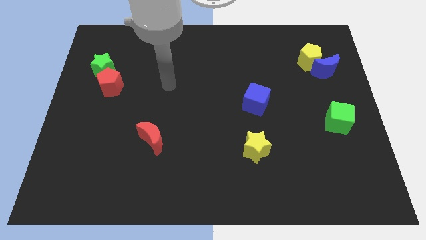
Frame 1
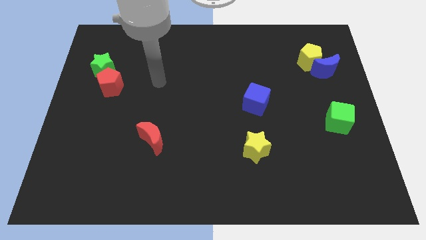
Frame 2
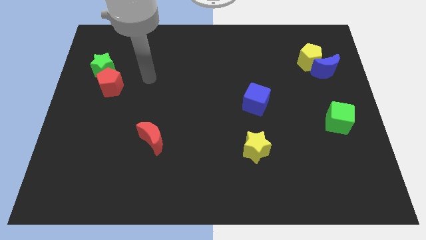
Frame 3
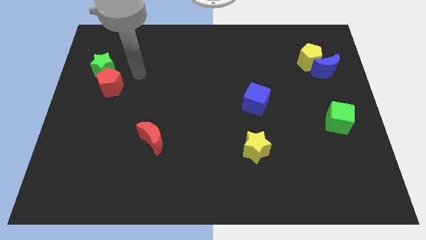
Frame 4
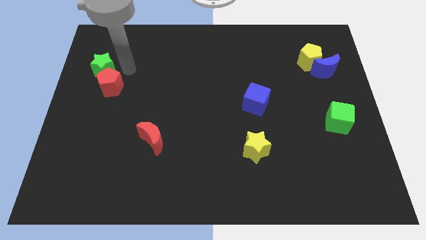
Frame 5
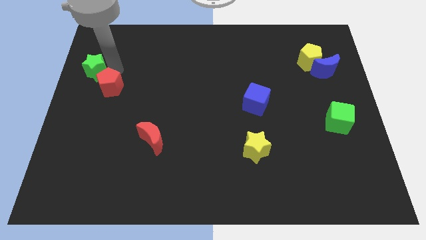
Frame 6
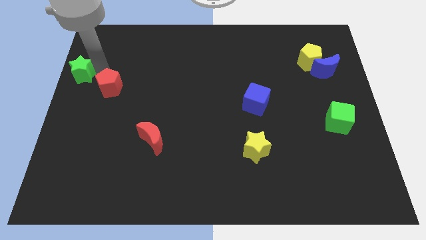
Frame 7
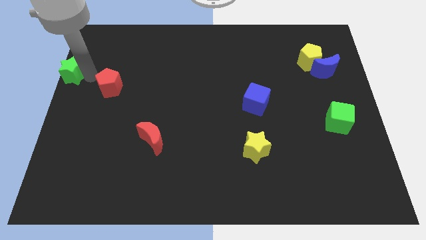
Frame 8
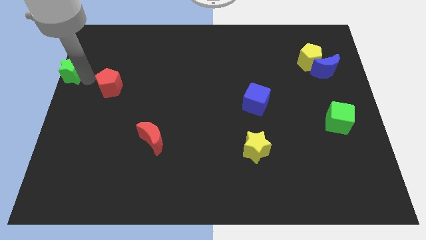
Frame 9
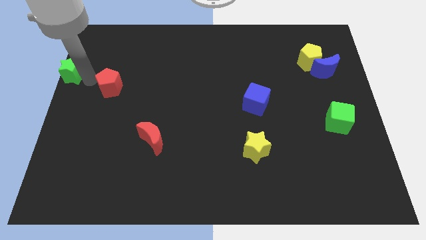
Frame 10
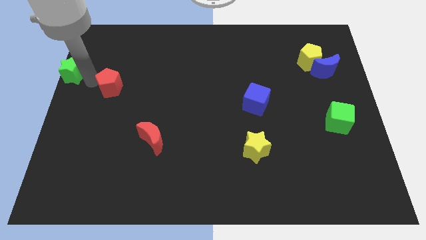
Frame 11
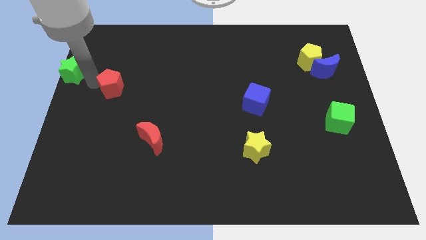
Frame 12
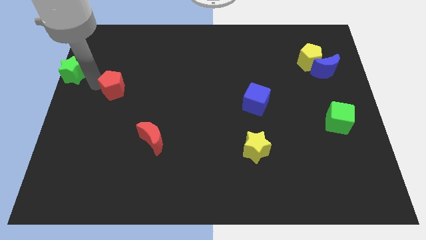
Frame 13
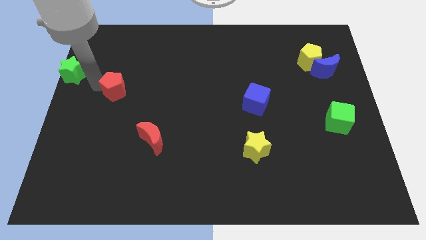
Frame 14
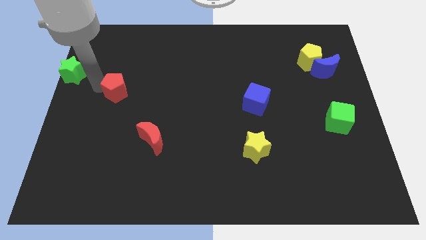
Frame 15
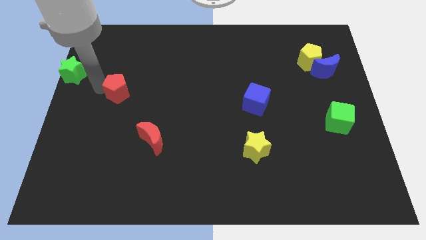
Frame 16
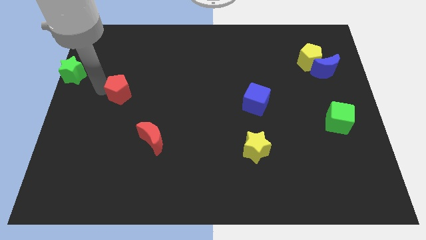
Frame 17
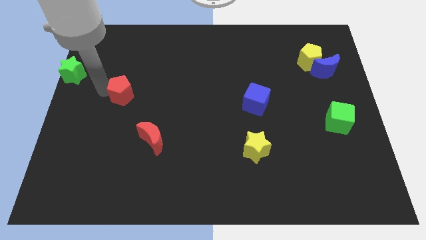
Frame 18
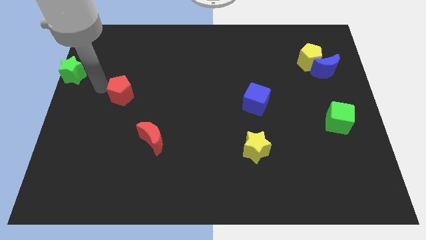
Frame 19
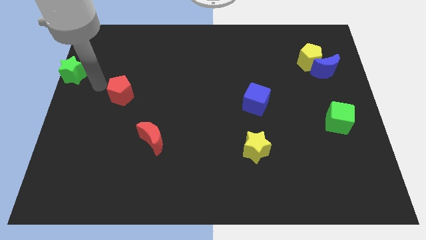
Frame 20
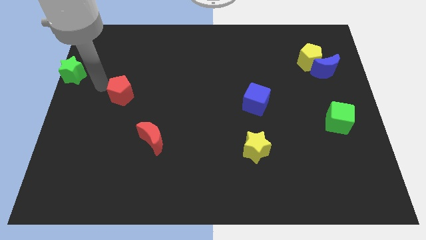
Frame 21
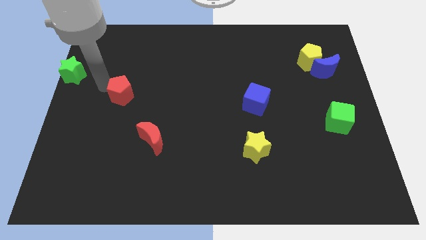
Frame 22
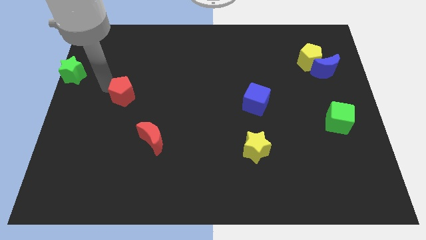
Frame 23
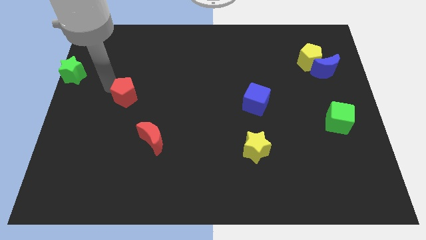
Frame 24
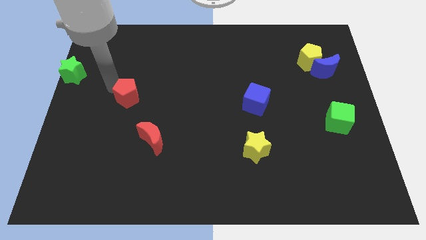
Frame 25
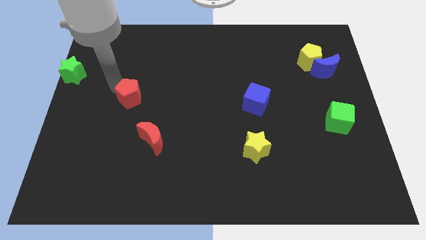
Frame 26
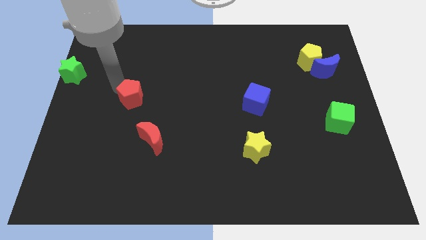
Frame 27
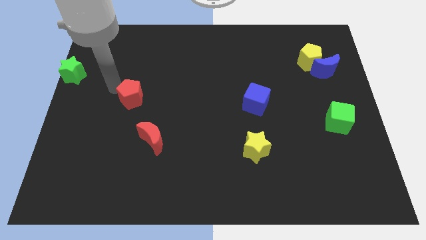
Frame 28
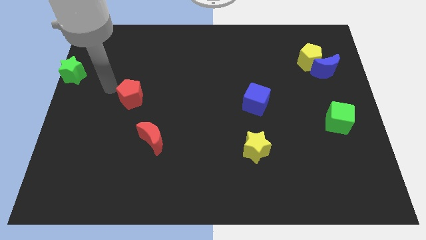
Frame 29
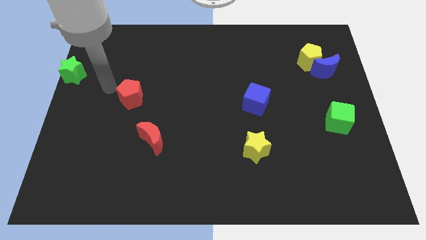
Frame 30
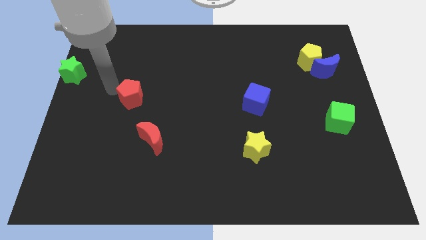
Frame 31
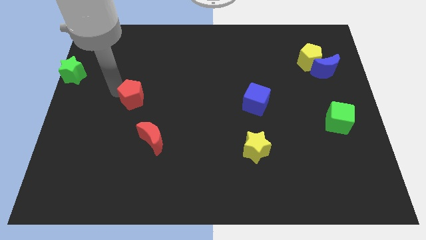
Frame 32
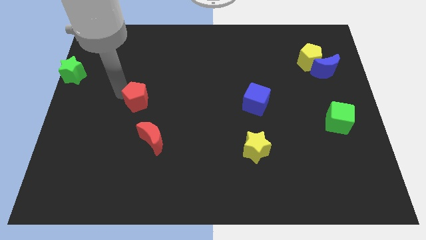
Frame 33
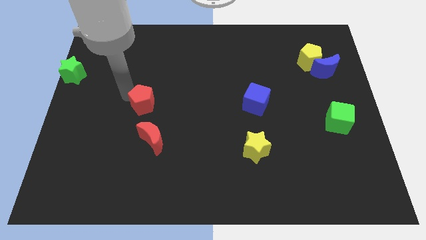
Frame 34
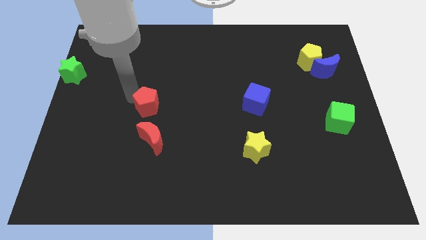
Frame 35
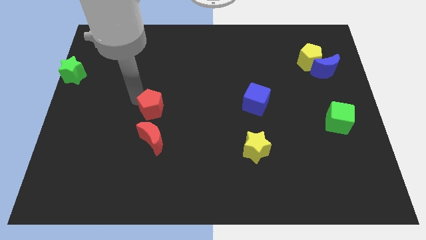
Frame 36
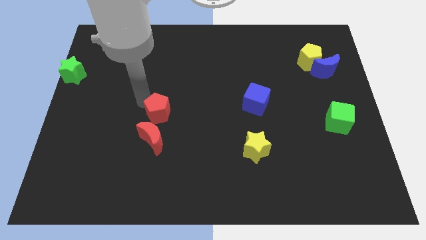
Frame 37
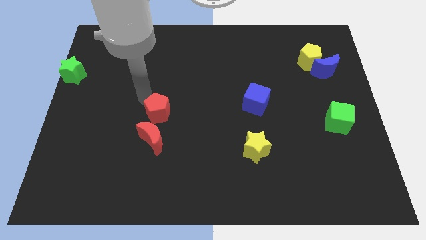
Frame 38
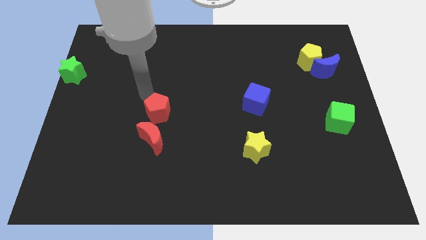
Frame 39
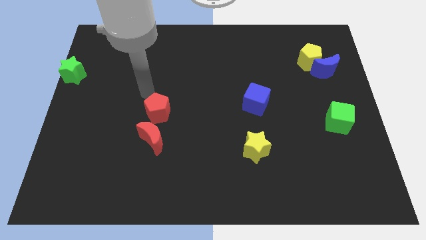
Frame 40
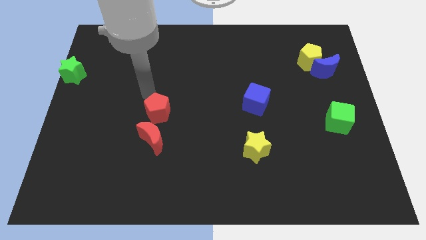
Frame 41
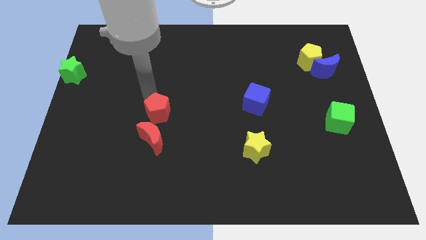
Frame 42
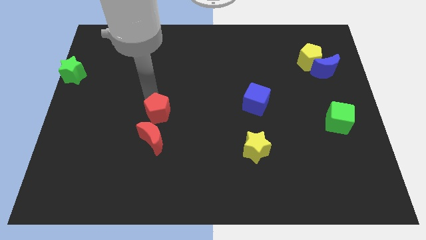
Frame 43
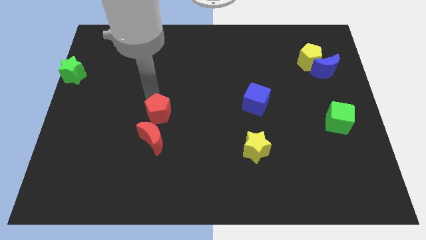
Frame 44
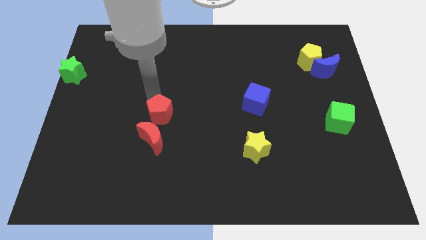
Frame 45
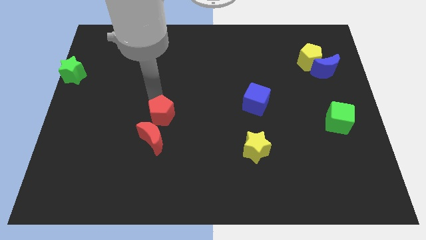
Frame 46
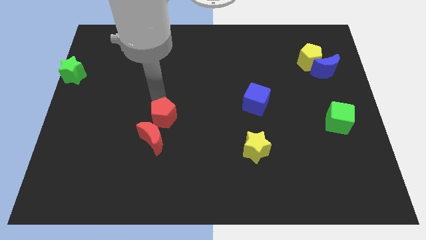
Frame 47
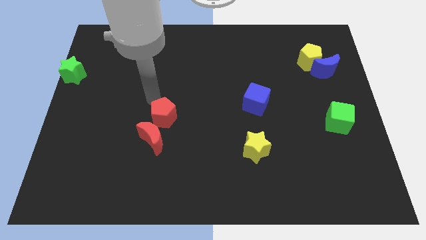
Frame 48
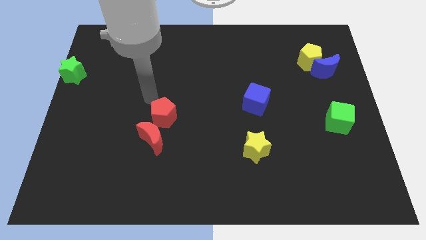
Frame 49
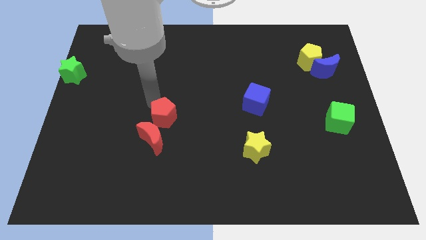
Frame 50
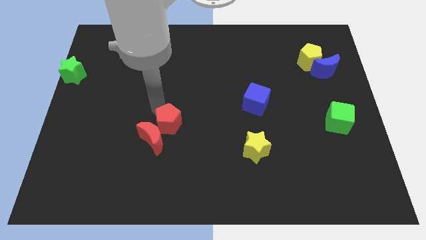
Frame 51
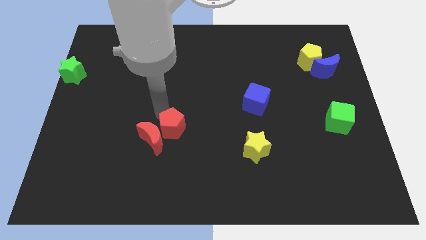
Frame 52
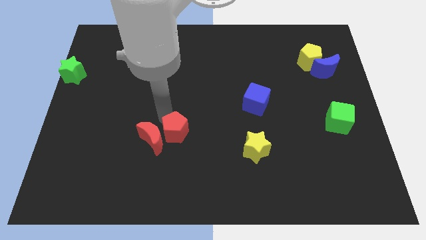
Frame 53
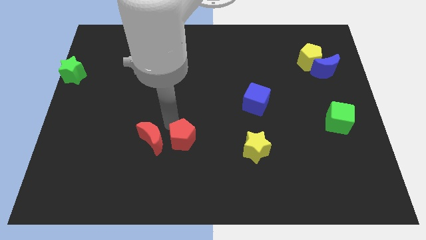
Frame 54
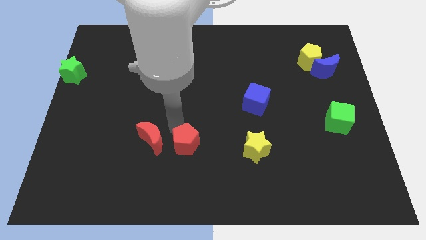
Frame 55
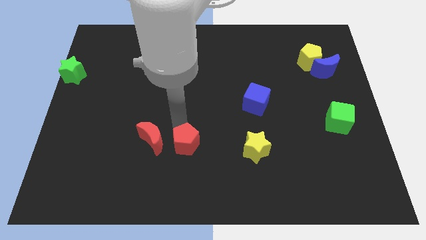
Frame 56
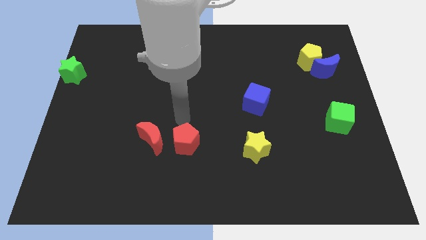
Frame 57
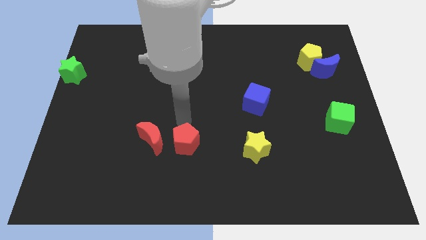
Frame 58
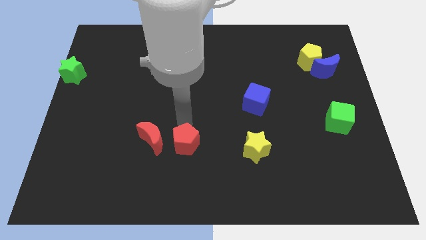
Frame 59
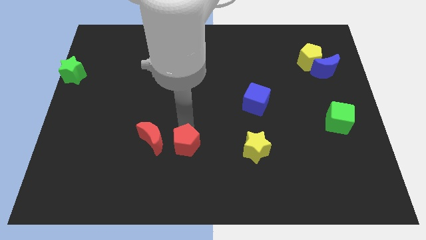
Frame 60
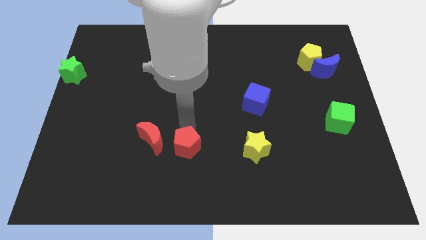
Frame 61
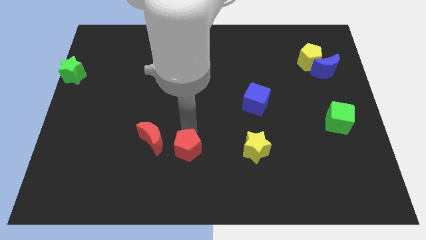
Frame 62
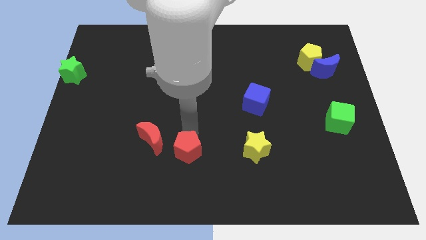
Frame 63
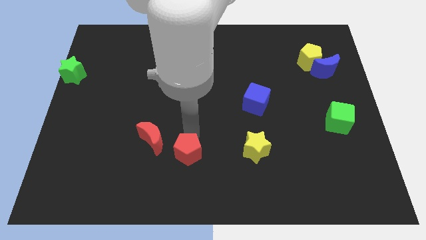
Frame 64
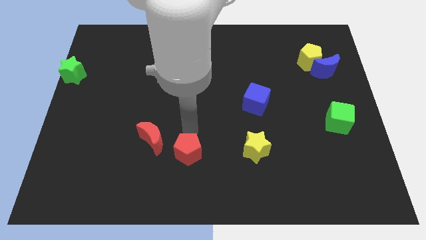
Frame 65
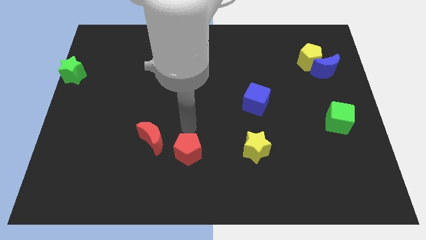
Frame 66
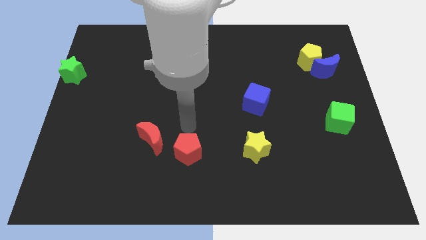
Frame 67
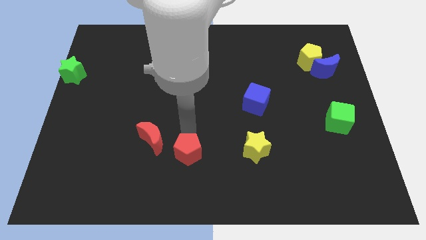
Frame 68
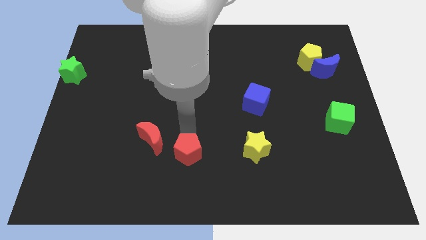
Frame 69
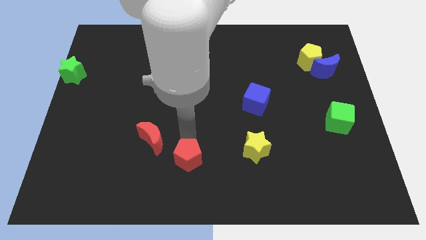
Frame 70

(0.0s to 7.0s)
slide the red pentagon to the bottom side
